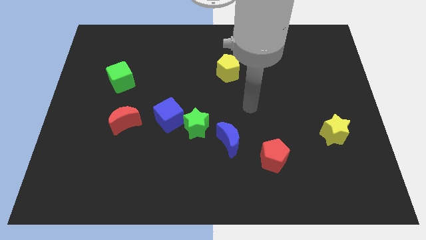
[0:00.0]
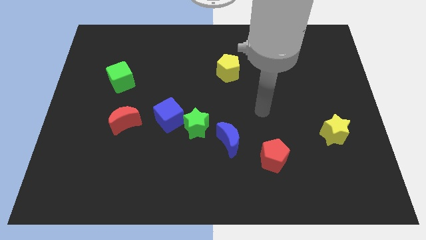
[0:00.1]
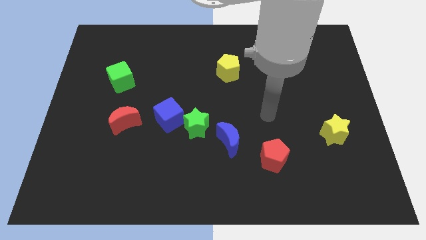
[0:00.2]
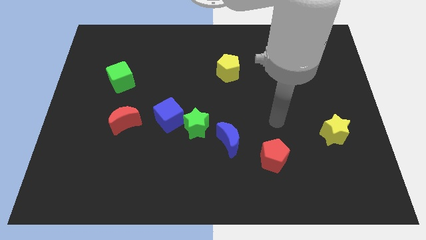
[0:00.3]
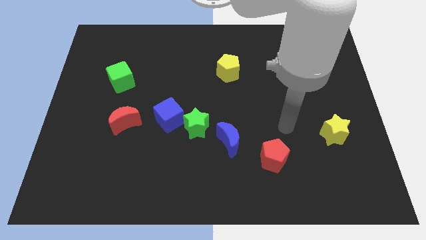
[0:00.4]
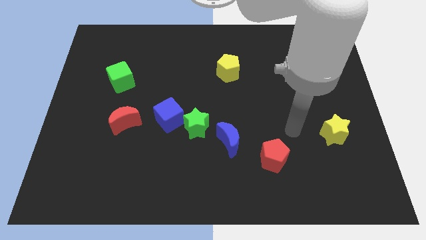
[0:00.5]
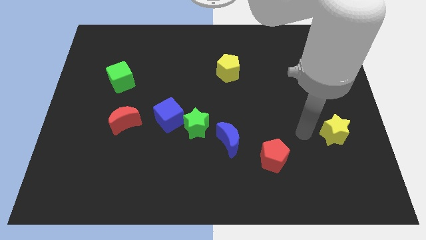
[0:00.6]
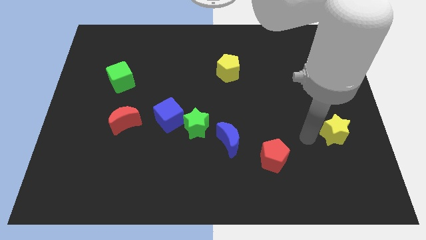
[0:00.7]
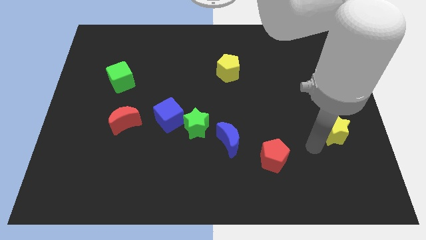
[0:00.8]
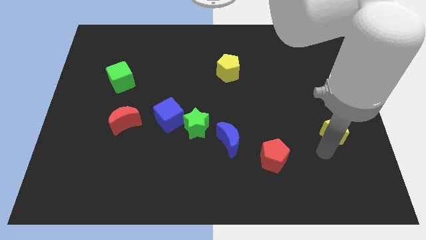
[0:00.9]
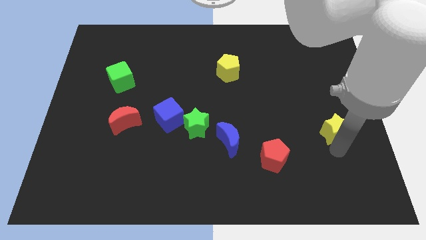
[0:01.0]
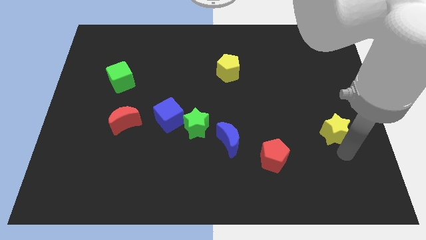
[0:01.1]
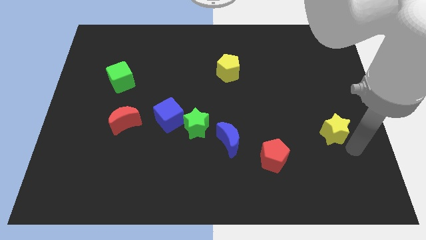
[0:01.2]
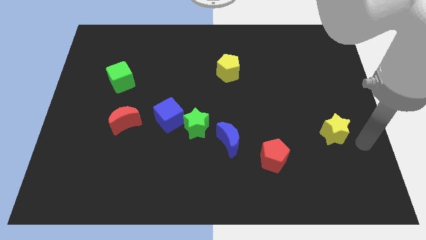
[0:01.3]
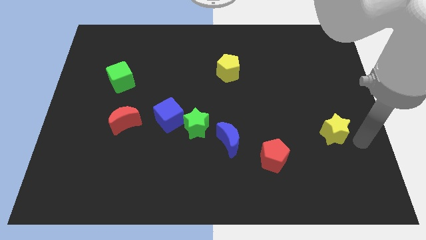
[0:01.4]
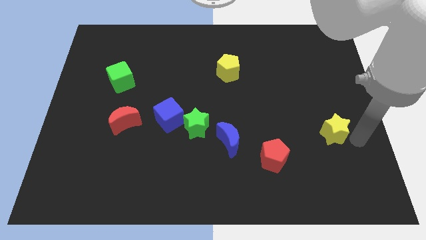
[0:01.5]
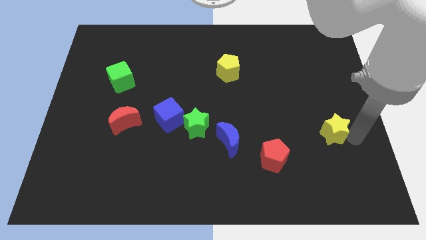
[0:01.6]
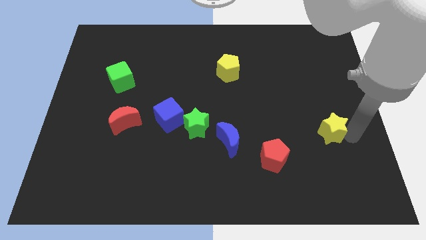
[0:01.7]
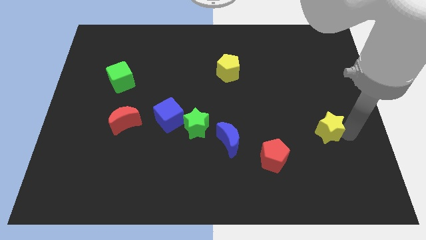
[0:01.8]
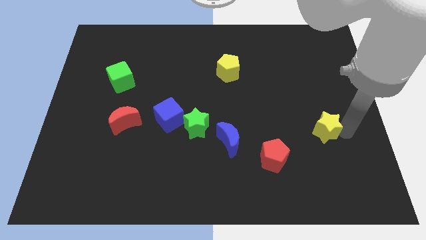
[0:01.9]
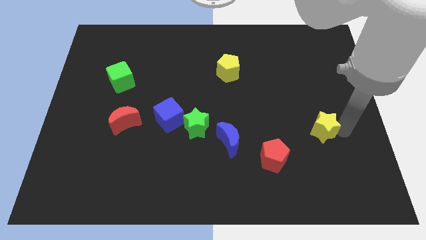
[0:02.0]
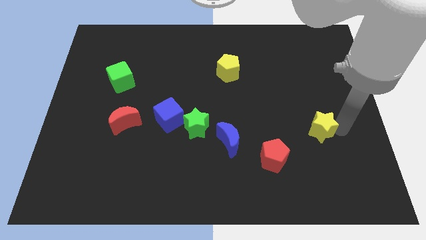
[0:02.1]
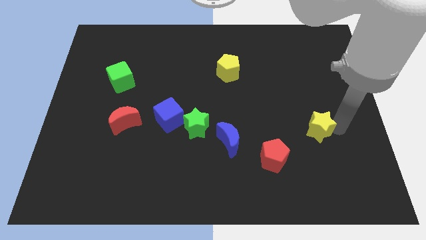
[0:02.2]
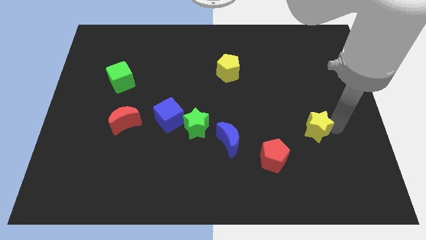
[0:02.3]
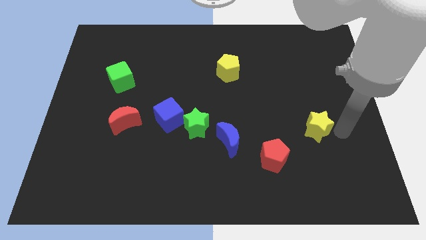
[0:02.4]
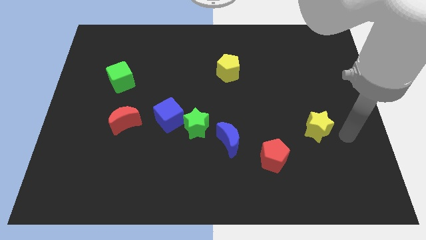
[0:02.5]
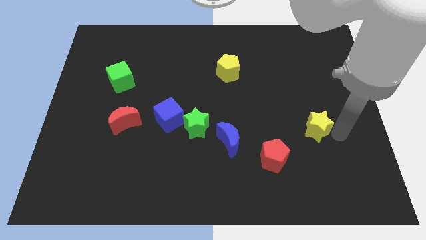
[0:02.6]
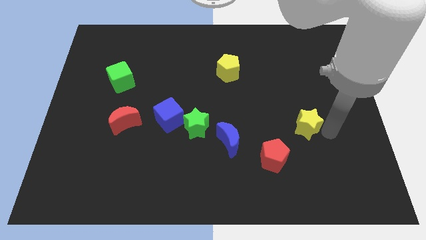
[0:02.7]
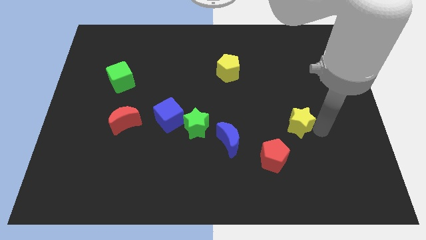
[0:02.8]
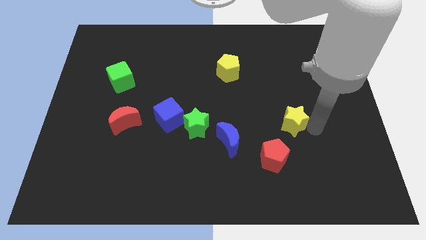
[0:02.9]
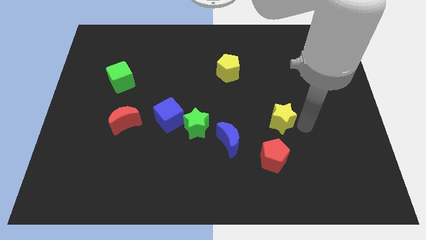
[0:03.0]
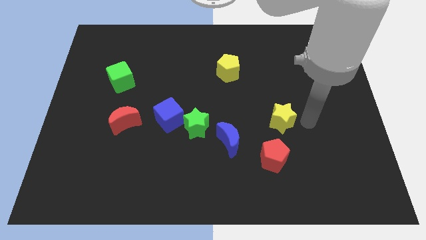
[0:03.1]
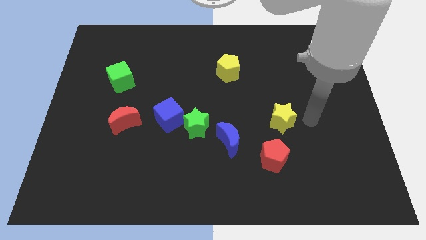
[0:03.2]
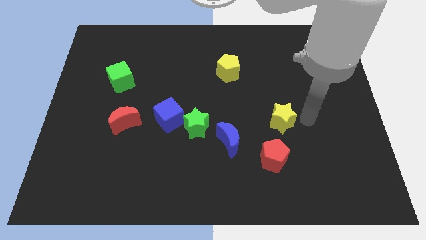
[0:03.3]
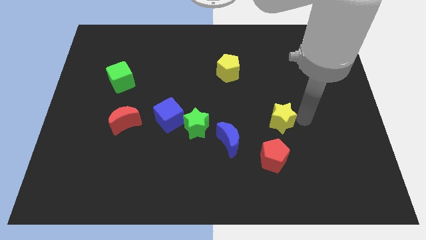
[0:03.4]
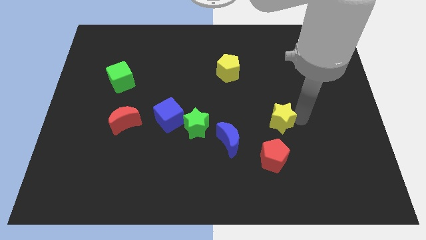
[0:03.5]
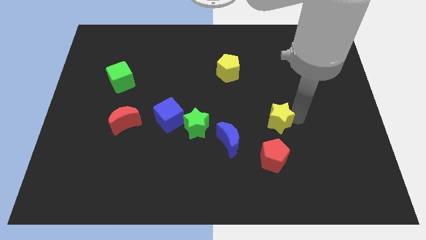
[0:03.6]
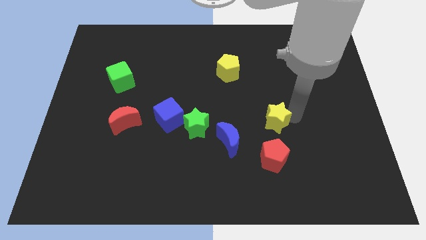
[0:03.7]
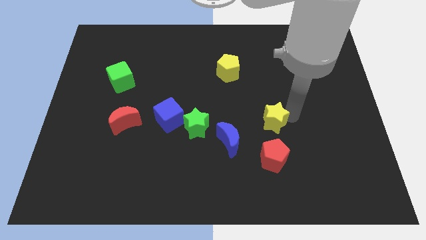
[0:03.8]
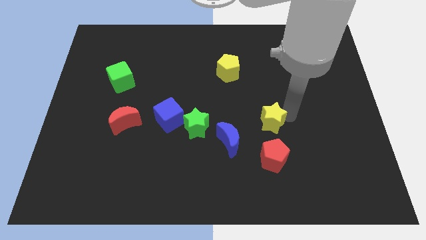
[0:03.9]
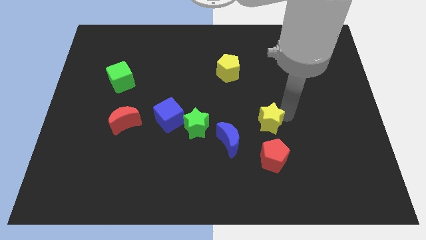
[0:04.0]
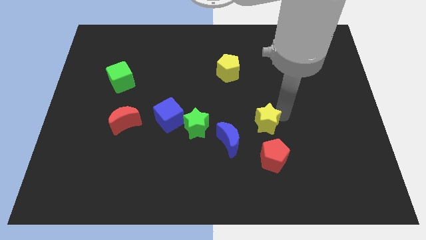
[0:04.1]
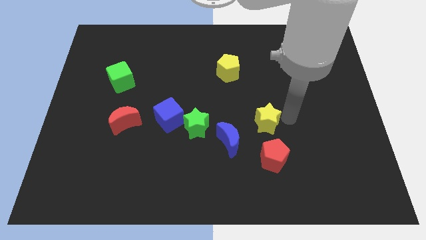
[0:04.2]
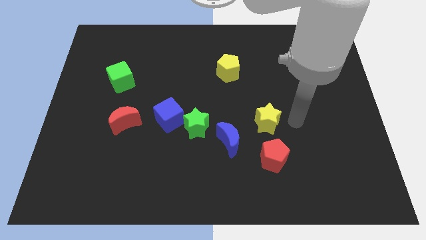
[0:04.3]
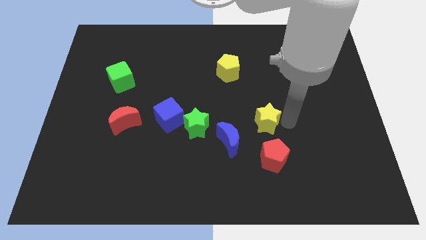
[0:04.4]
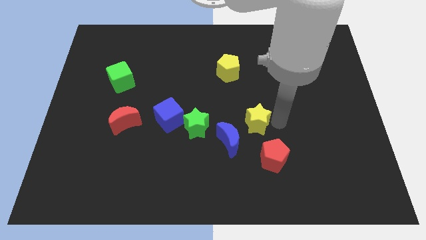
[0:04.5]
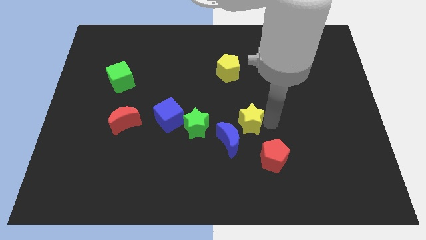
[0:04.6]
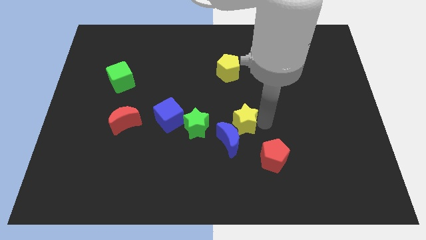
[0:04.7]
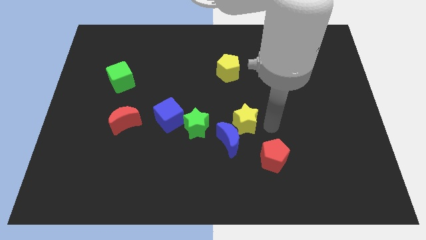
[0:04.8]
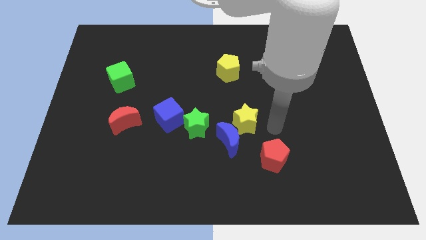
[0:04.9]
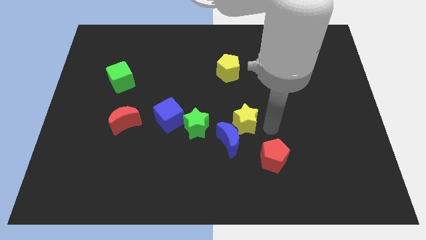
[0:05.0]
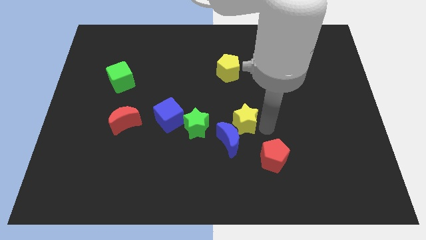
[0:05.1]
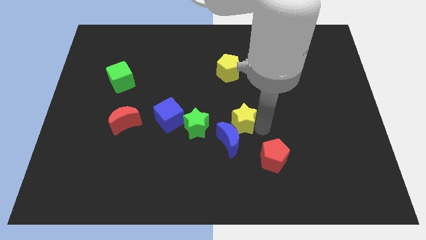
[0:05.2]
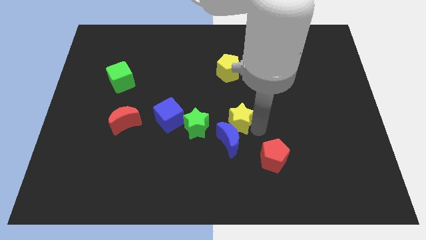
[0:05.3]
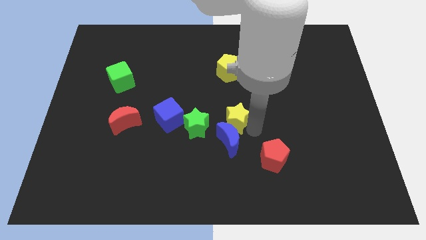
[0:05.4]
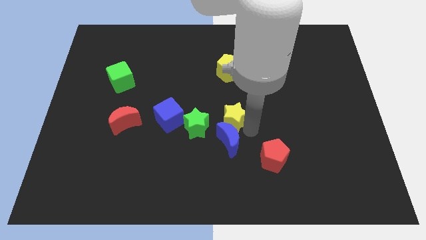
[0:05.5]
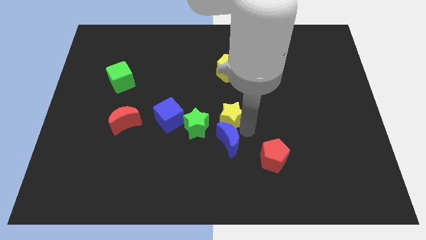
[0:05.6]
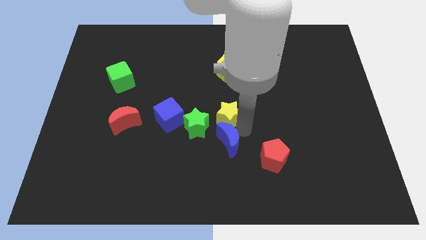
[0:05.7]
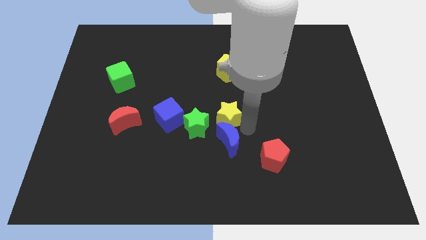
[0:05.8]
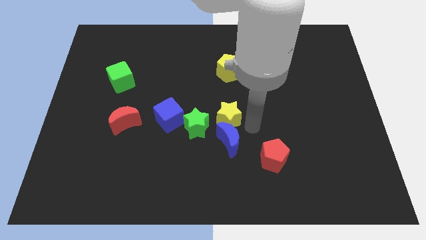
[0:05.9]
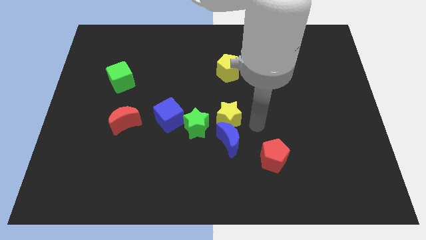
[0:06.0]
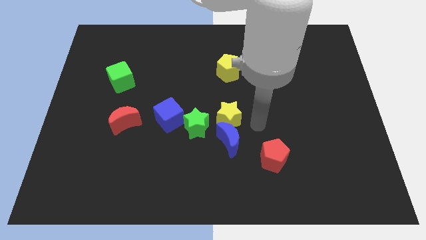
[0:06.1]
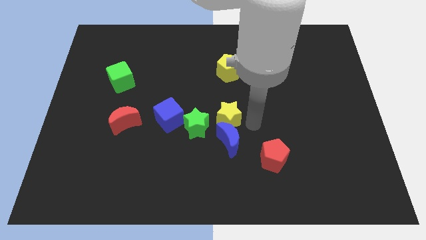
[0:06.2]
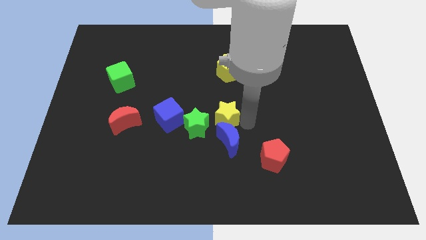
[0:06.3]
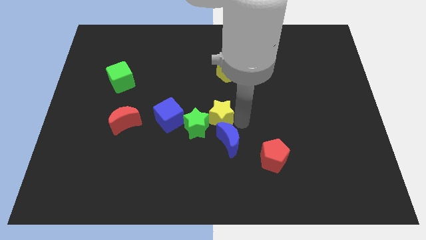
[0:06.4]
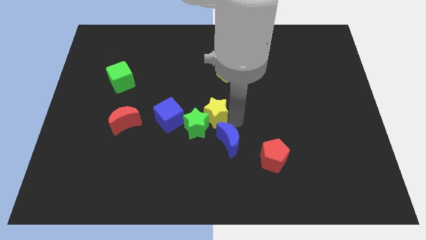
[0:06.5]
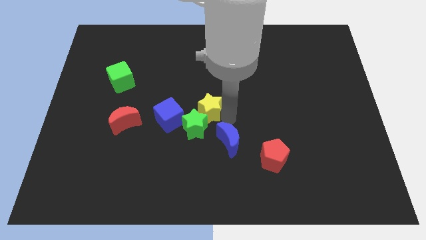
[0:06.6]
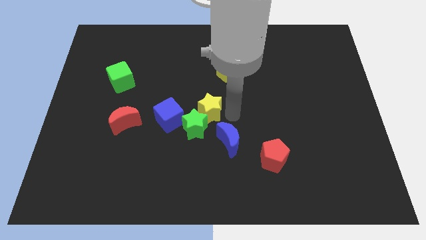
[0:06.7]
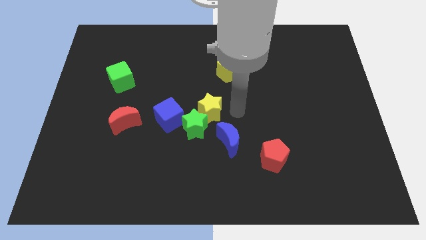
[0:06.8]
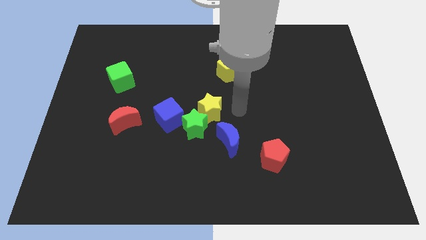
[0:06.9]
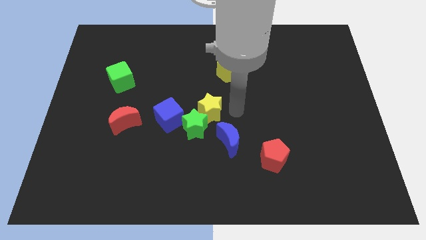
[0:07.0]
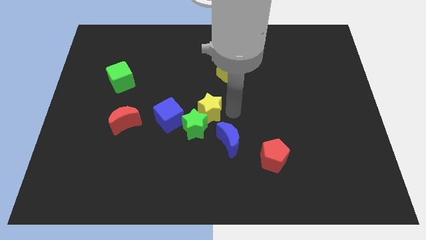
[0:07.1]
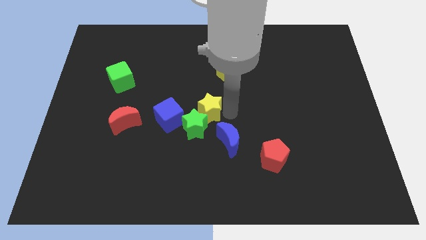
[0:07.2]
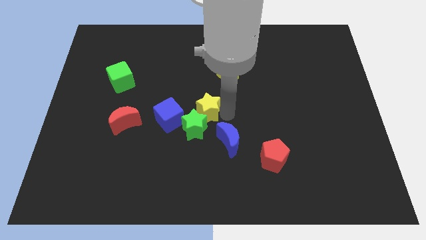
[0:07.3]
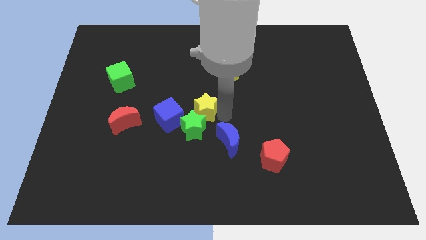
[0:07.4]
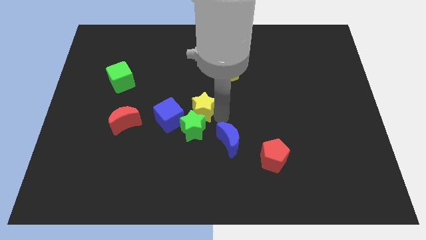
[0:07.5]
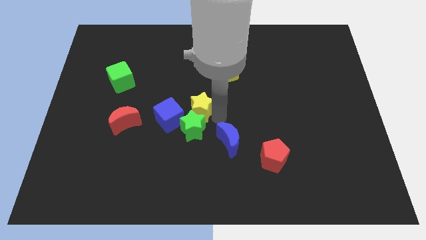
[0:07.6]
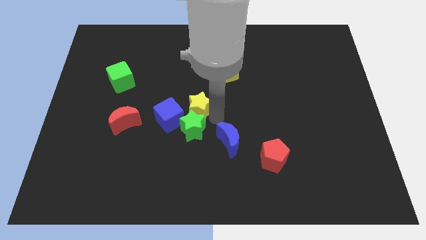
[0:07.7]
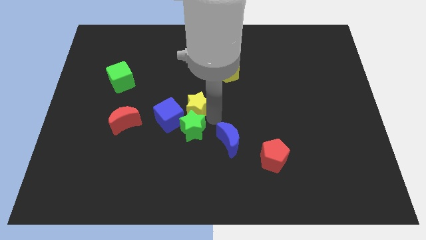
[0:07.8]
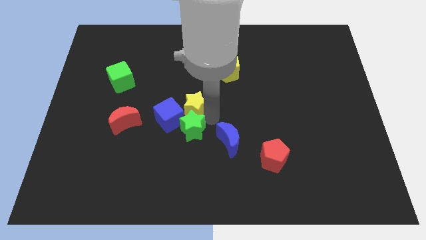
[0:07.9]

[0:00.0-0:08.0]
move the yellow star to the blue cube

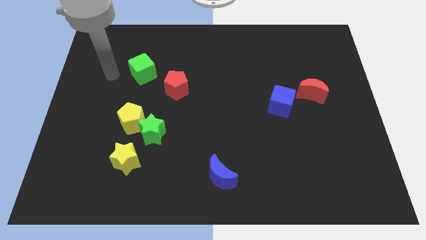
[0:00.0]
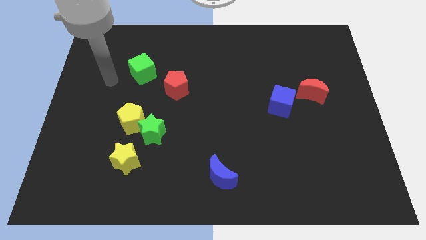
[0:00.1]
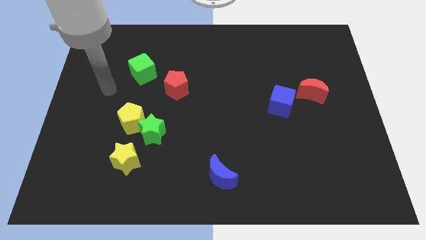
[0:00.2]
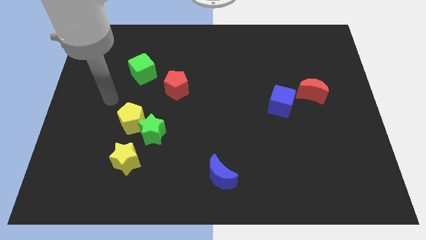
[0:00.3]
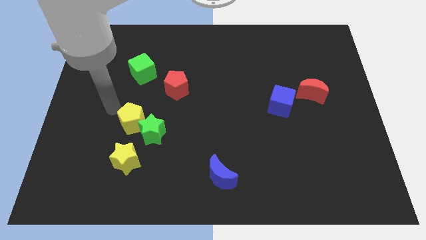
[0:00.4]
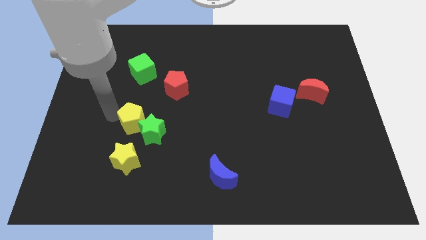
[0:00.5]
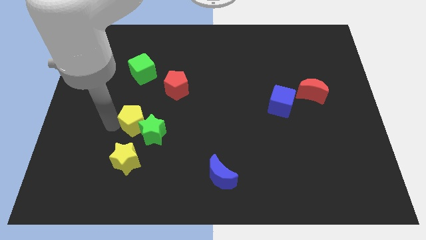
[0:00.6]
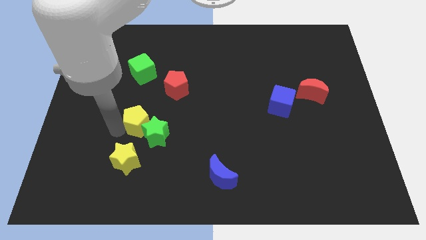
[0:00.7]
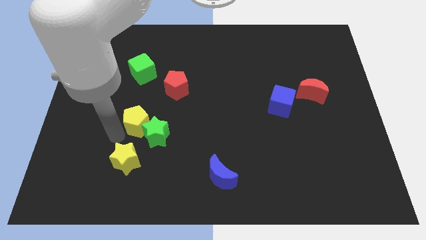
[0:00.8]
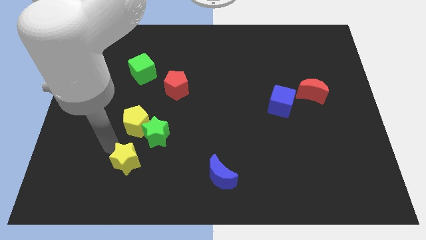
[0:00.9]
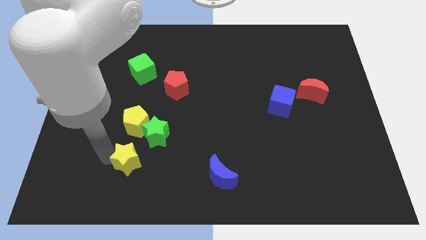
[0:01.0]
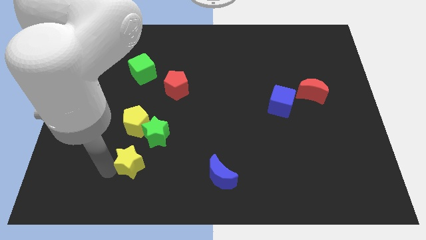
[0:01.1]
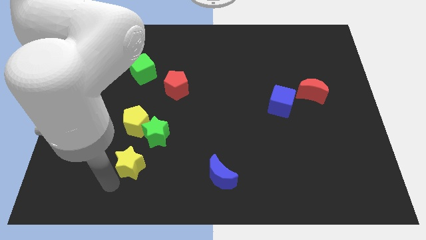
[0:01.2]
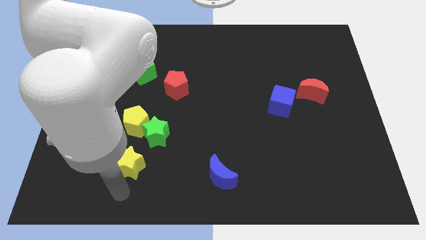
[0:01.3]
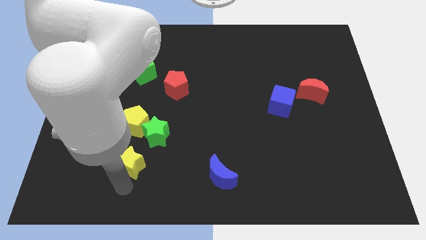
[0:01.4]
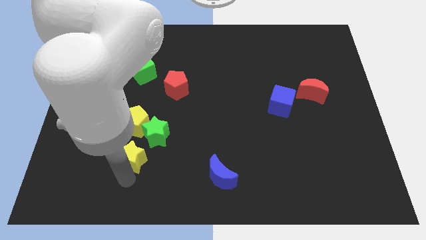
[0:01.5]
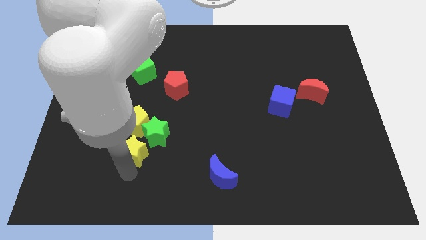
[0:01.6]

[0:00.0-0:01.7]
push the yellow star towards the green star
